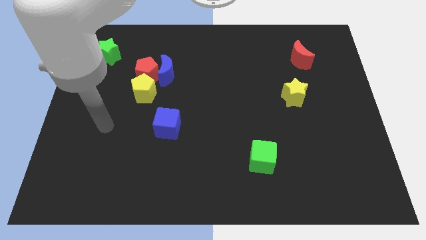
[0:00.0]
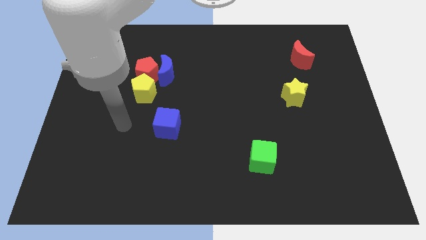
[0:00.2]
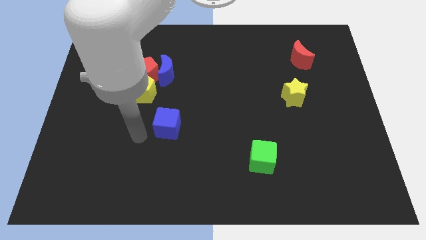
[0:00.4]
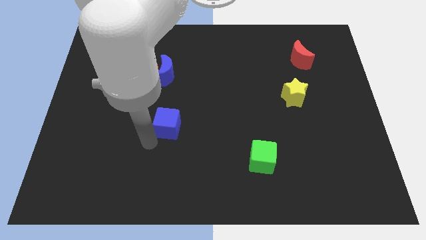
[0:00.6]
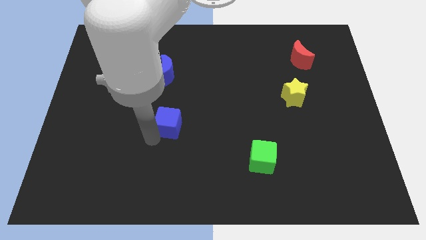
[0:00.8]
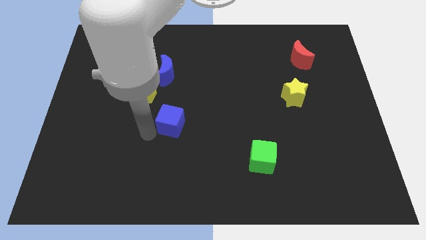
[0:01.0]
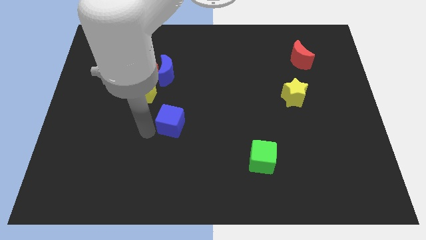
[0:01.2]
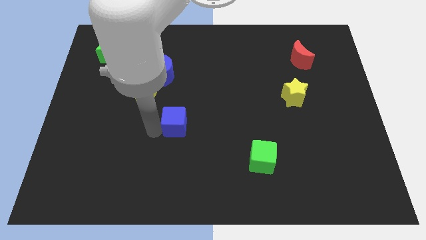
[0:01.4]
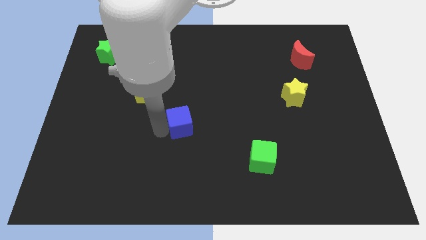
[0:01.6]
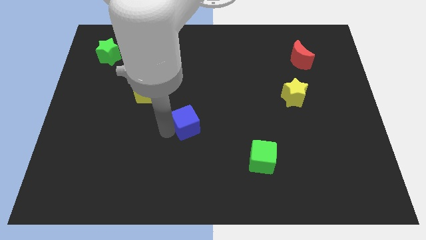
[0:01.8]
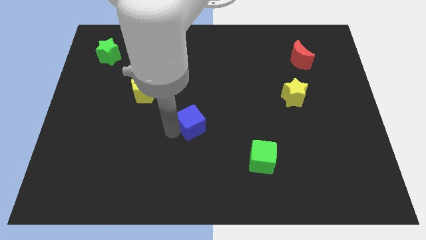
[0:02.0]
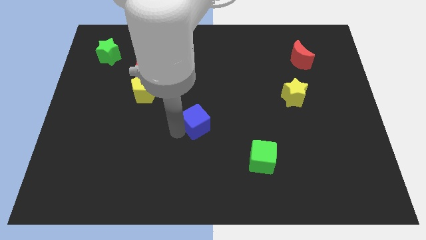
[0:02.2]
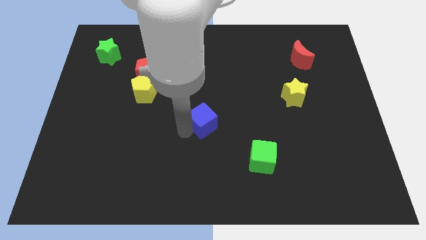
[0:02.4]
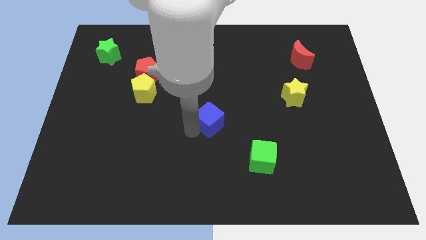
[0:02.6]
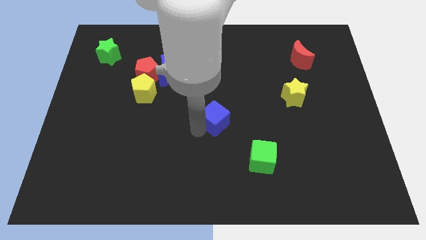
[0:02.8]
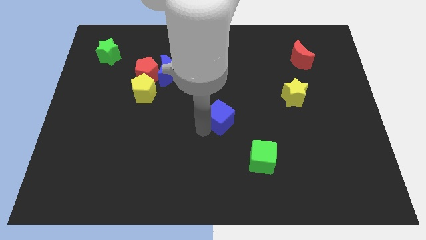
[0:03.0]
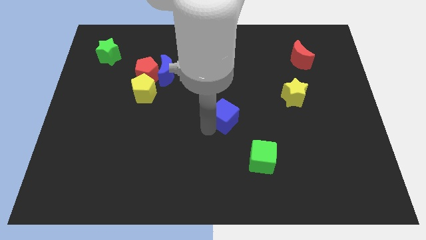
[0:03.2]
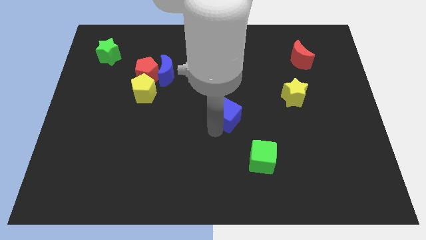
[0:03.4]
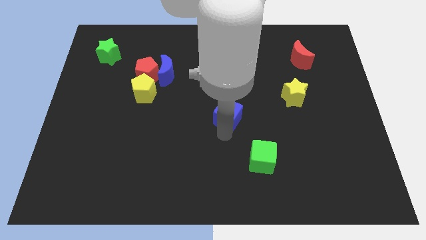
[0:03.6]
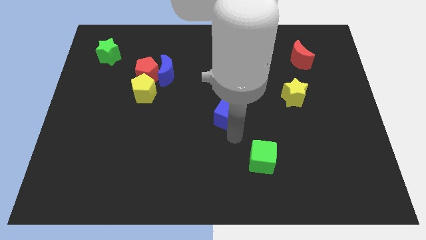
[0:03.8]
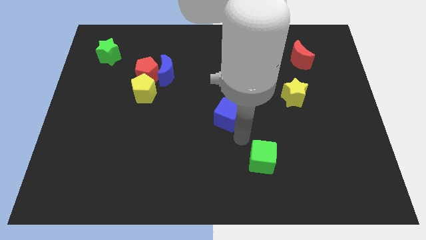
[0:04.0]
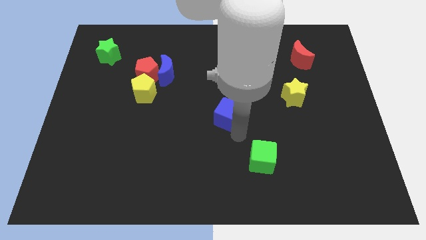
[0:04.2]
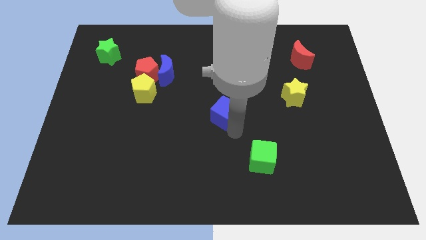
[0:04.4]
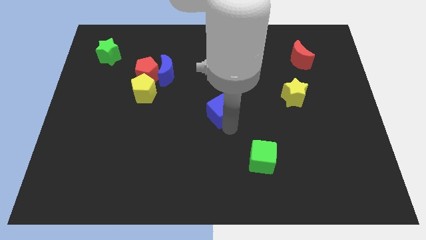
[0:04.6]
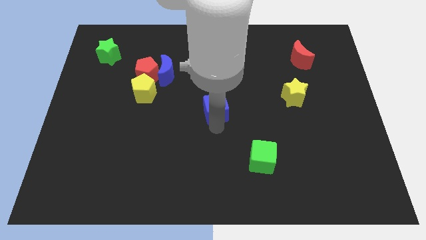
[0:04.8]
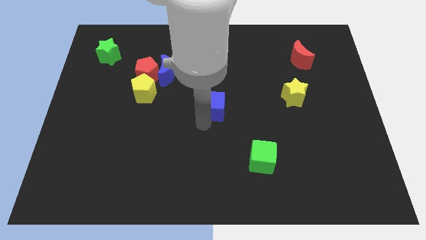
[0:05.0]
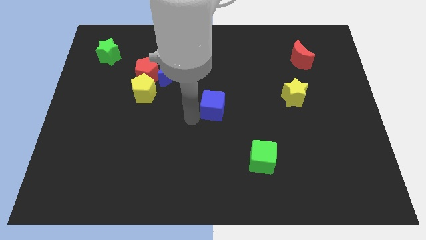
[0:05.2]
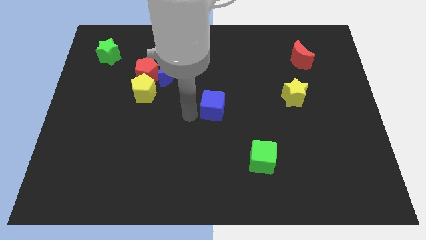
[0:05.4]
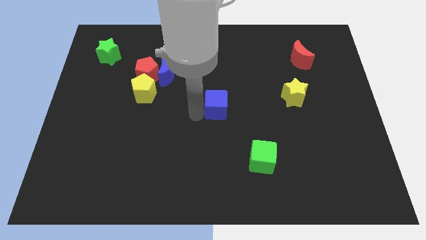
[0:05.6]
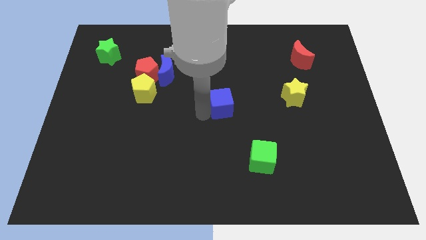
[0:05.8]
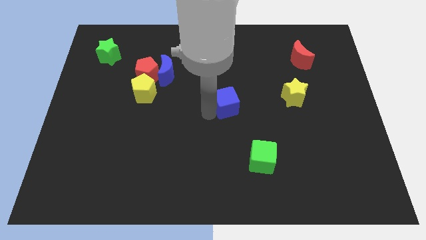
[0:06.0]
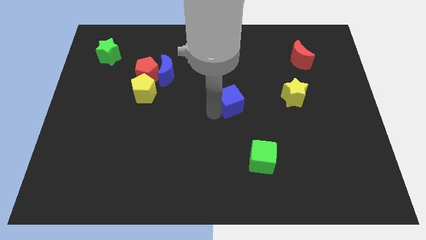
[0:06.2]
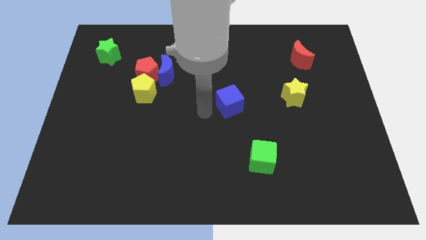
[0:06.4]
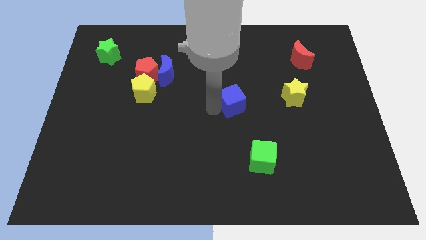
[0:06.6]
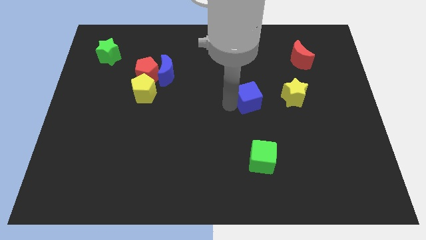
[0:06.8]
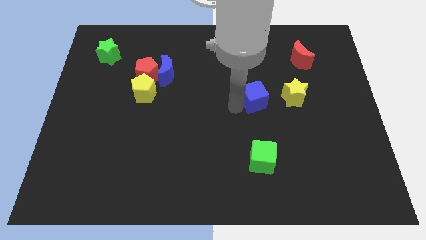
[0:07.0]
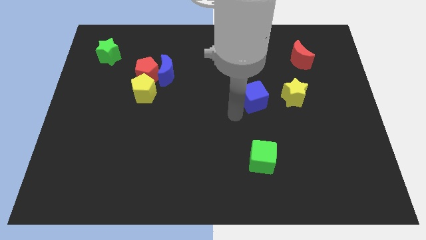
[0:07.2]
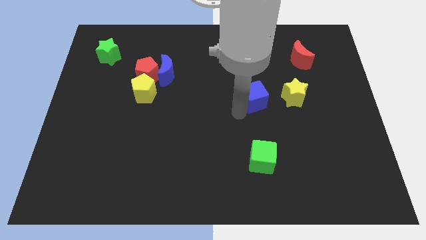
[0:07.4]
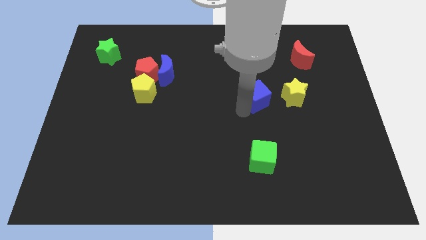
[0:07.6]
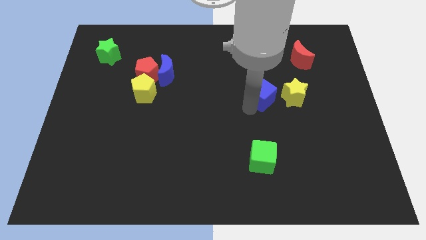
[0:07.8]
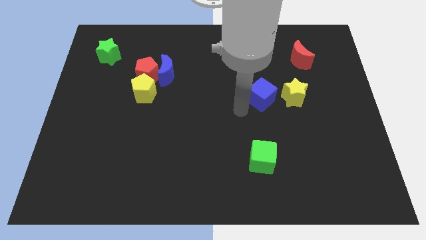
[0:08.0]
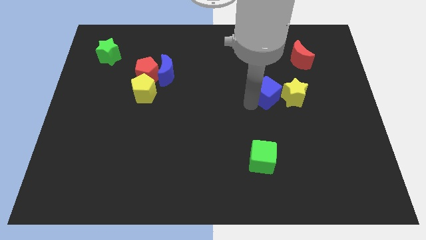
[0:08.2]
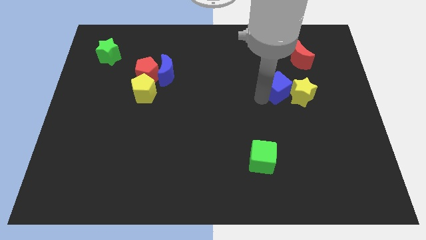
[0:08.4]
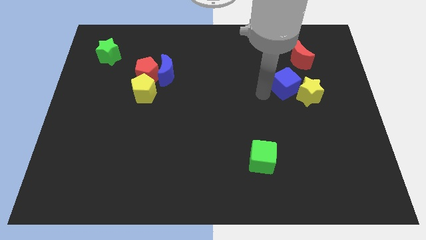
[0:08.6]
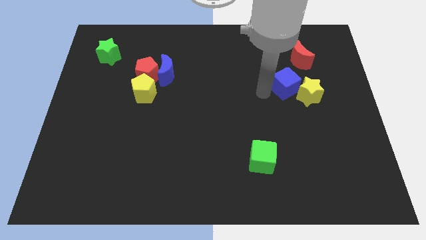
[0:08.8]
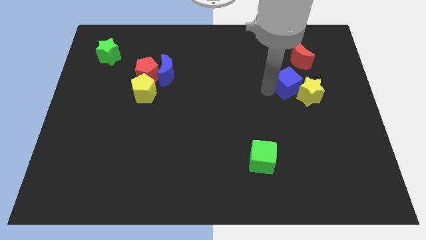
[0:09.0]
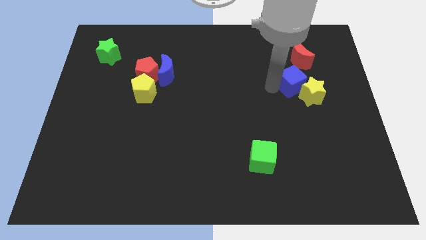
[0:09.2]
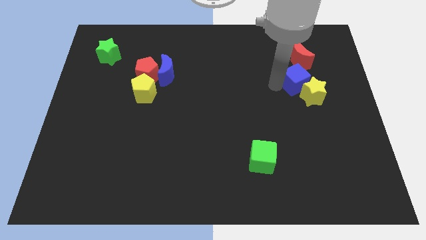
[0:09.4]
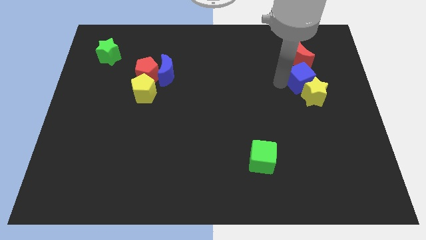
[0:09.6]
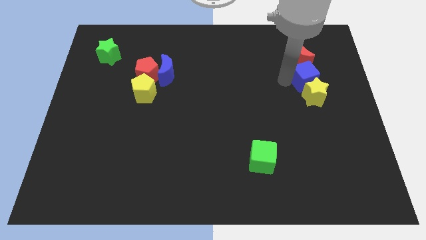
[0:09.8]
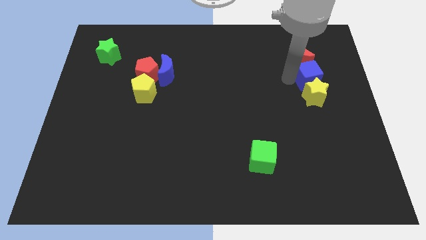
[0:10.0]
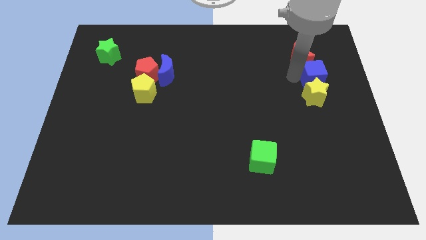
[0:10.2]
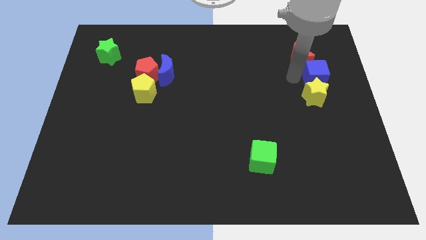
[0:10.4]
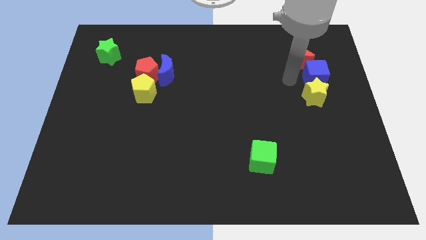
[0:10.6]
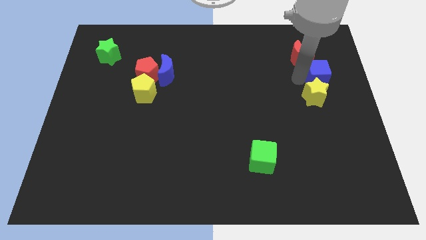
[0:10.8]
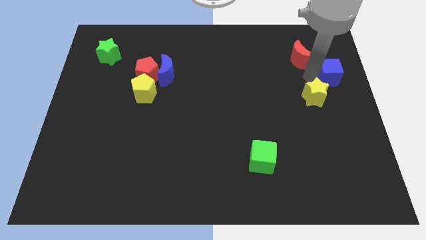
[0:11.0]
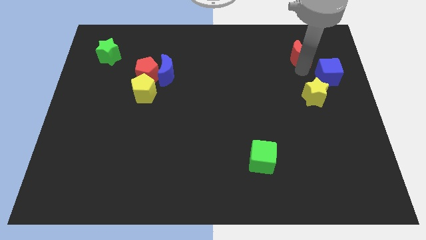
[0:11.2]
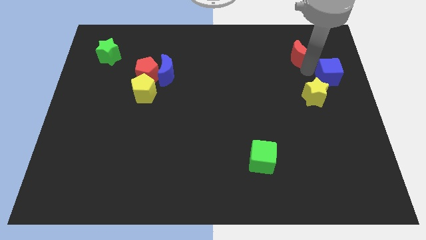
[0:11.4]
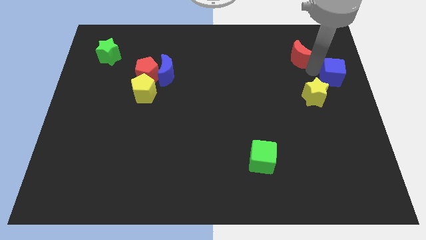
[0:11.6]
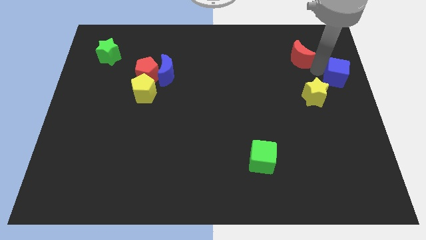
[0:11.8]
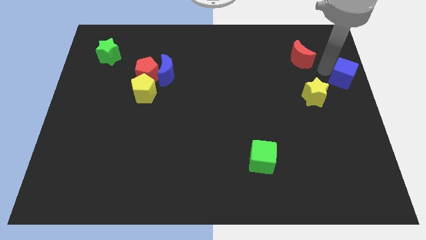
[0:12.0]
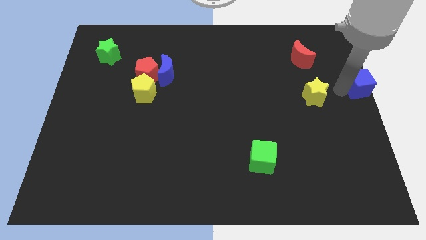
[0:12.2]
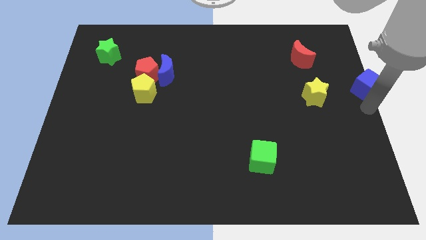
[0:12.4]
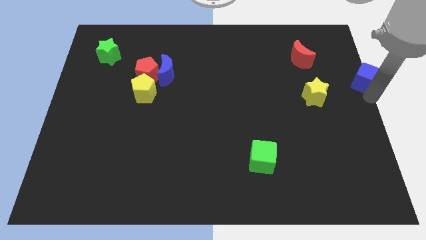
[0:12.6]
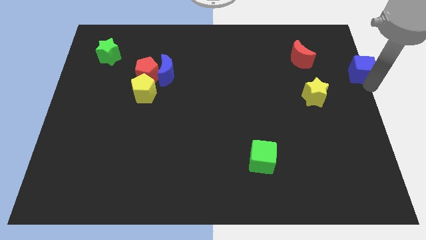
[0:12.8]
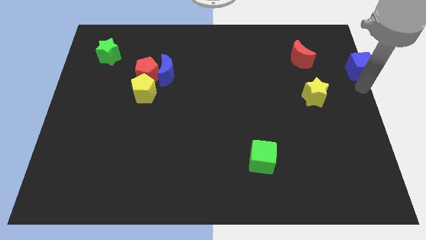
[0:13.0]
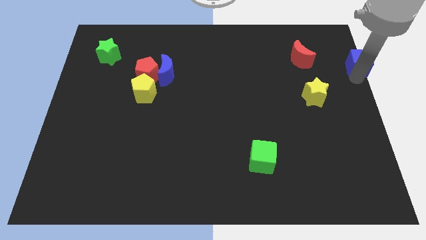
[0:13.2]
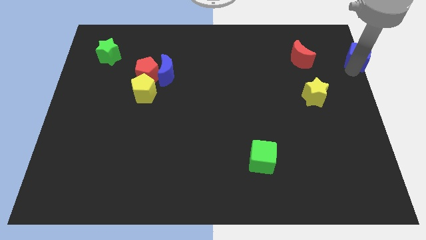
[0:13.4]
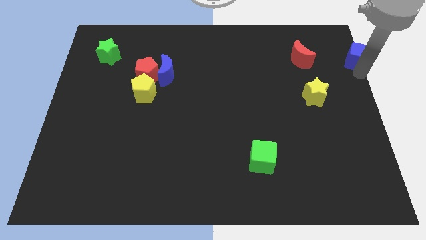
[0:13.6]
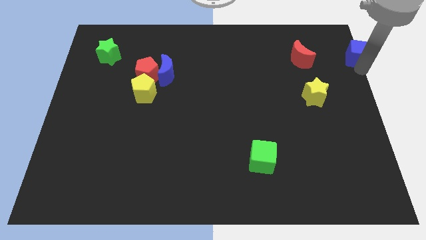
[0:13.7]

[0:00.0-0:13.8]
put the blue cube to the top right
